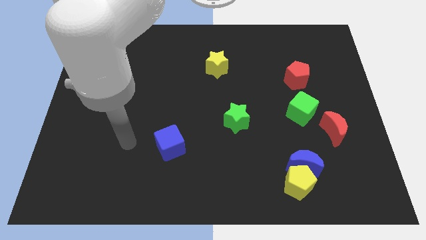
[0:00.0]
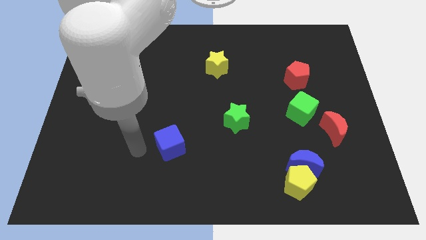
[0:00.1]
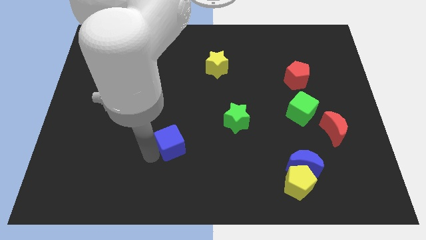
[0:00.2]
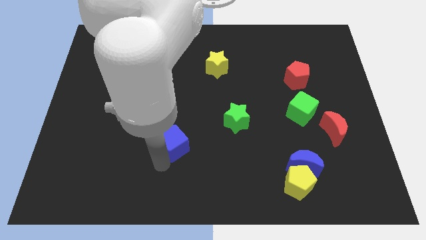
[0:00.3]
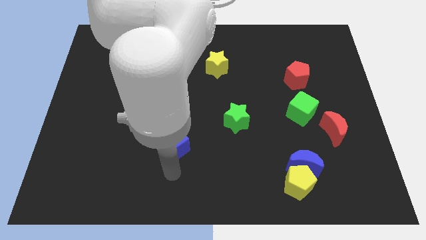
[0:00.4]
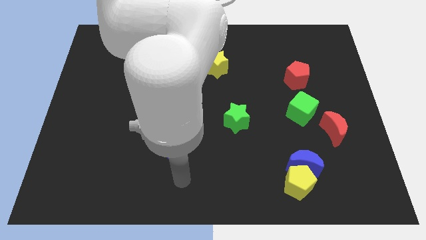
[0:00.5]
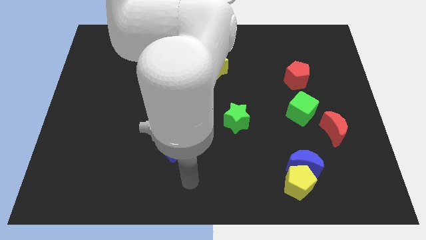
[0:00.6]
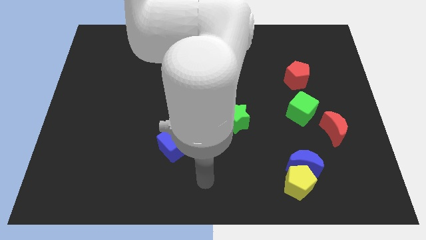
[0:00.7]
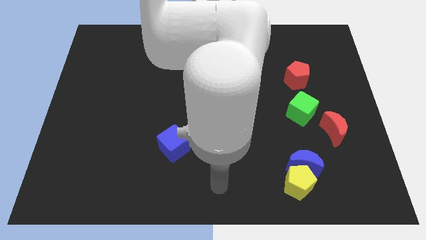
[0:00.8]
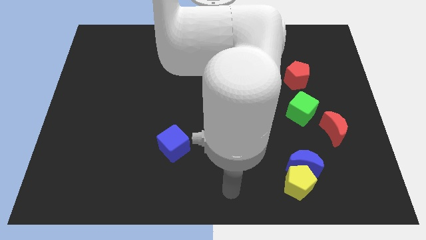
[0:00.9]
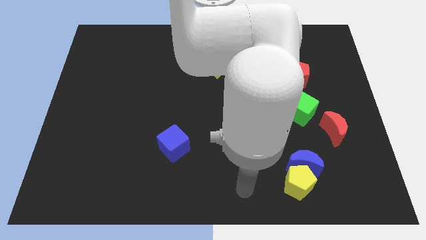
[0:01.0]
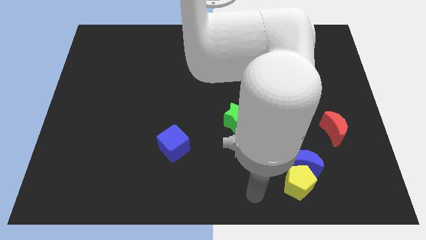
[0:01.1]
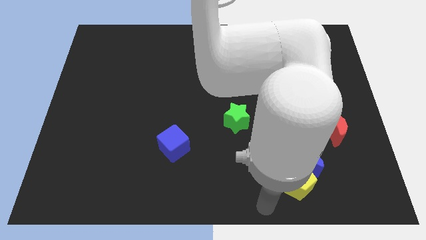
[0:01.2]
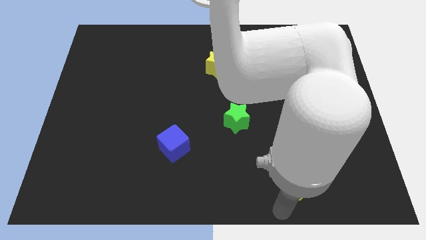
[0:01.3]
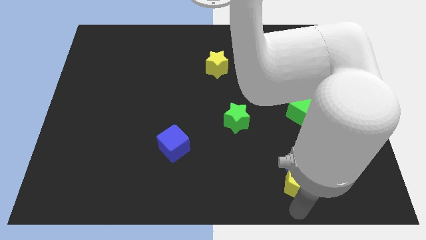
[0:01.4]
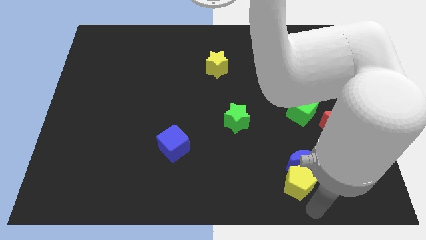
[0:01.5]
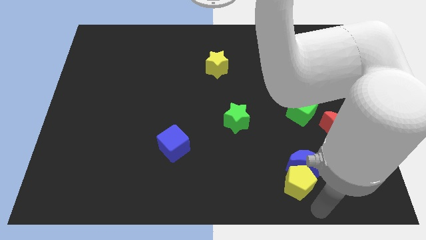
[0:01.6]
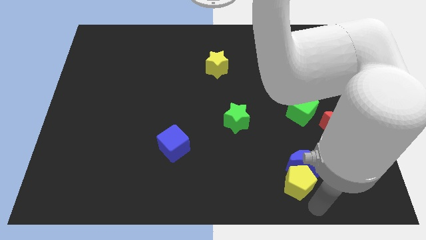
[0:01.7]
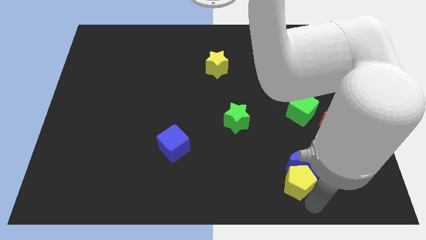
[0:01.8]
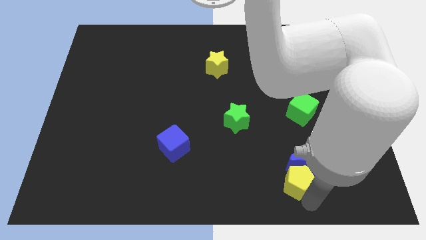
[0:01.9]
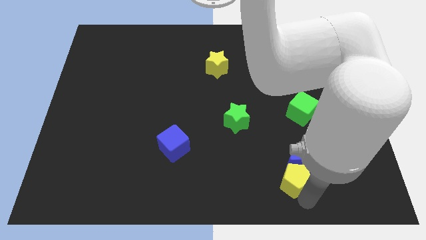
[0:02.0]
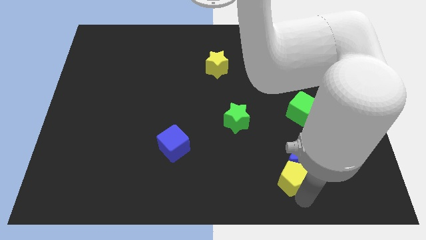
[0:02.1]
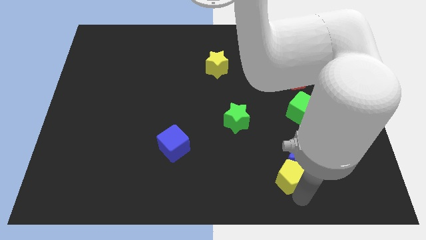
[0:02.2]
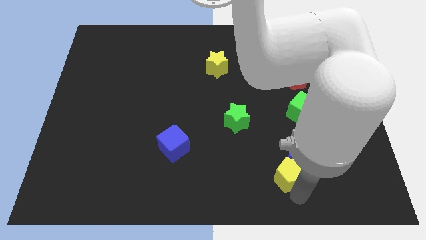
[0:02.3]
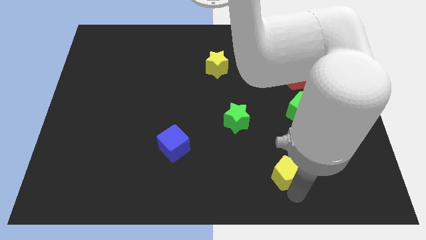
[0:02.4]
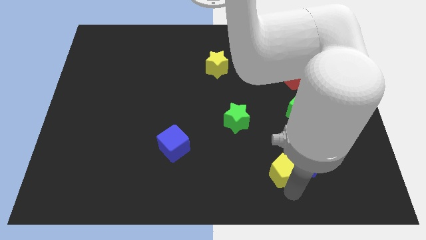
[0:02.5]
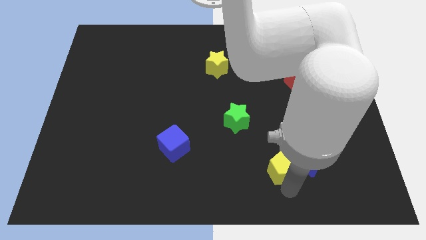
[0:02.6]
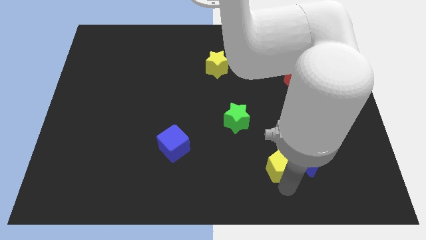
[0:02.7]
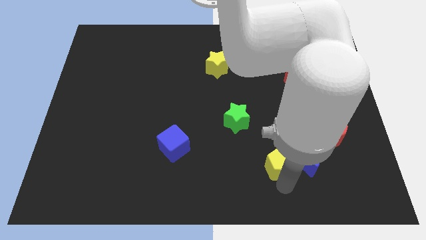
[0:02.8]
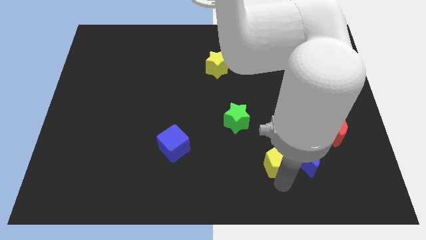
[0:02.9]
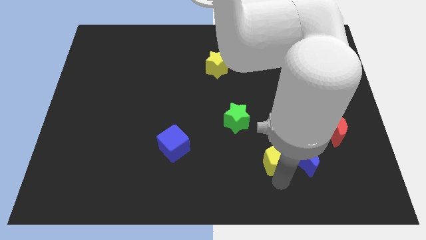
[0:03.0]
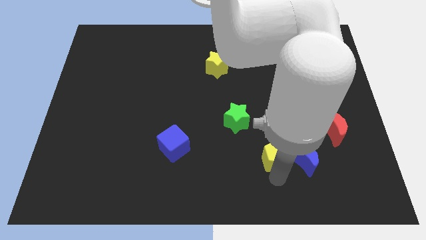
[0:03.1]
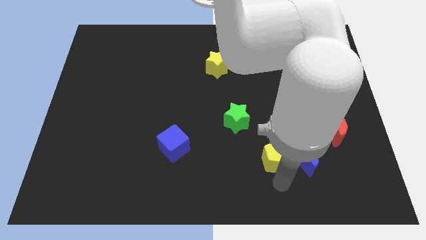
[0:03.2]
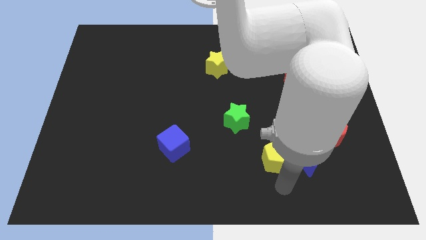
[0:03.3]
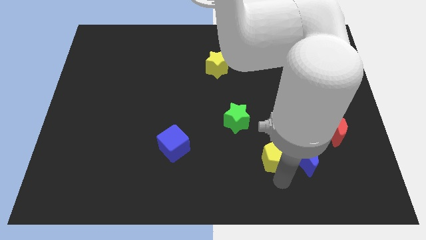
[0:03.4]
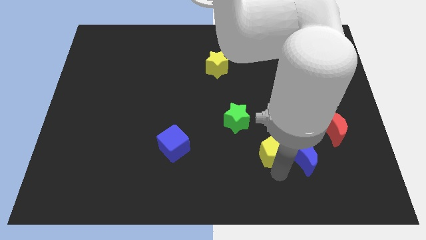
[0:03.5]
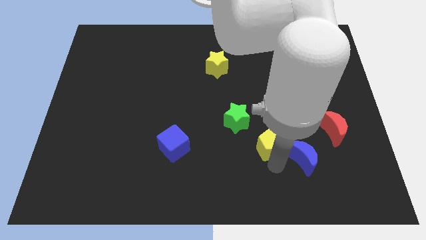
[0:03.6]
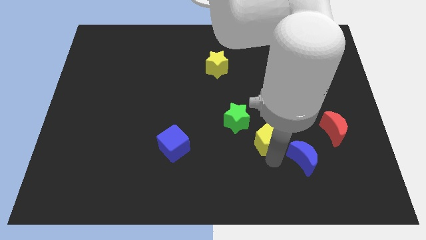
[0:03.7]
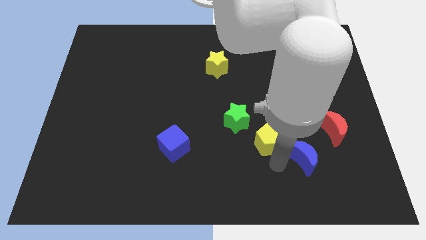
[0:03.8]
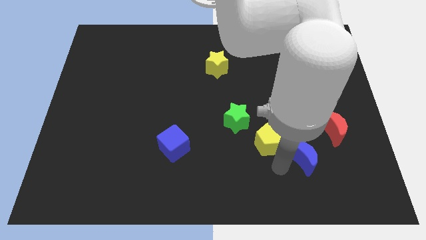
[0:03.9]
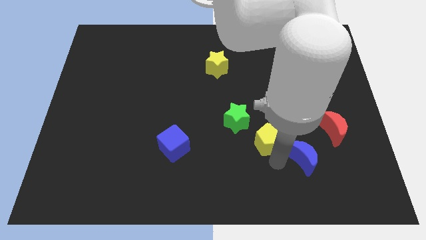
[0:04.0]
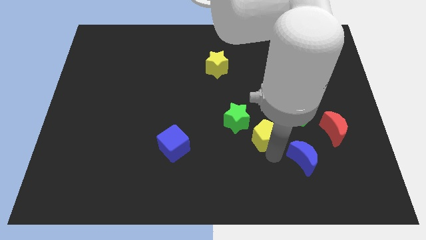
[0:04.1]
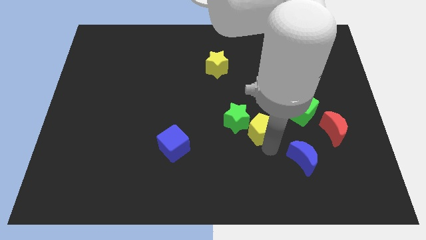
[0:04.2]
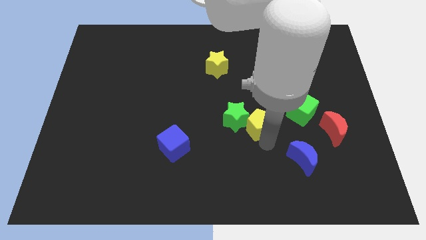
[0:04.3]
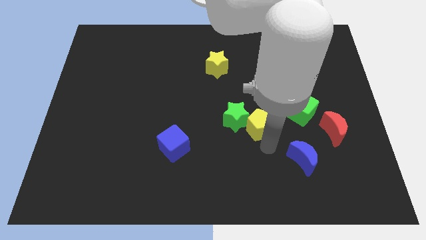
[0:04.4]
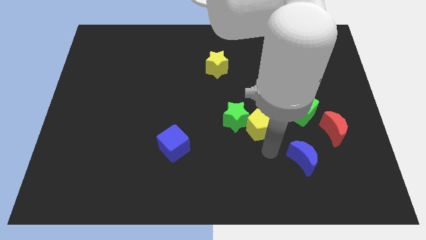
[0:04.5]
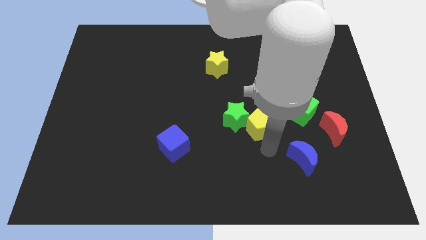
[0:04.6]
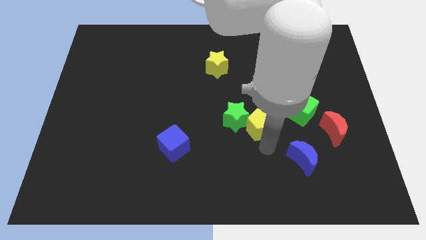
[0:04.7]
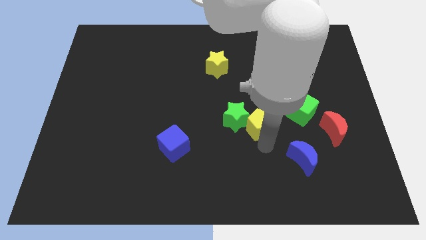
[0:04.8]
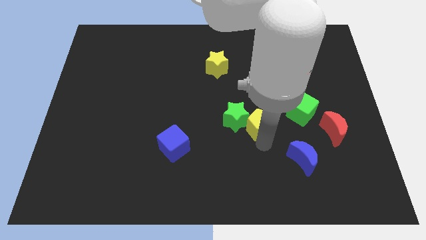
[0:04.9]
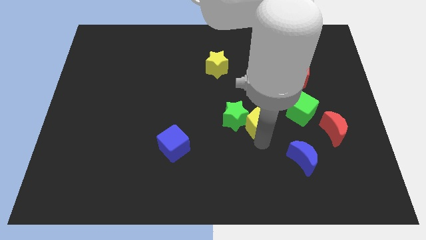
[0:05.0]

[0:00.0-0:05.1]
push the yellow pentagon to the middle of the board

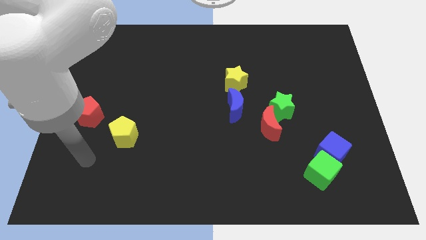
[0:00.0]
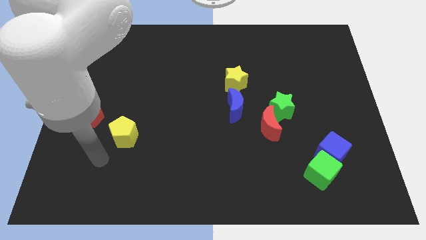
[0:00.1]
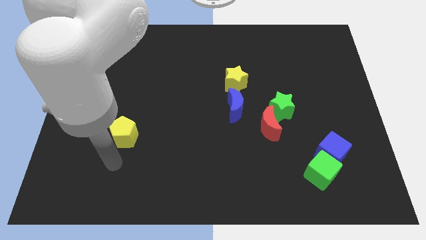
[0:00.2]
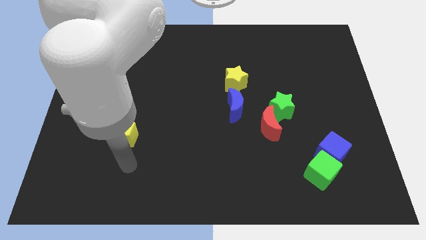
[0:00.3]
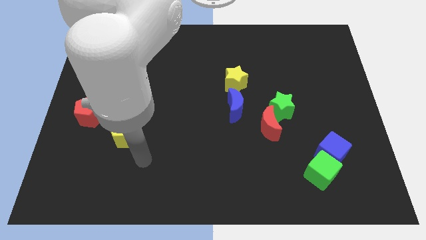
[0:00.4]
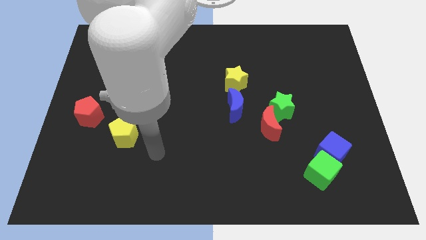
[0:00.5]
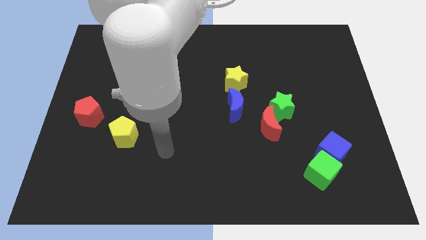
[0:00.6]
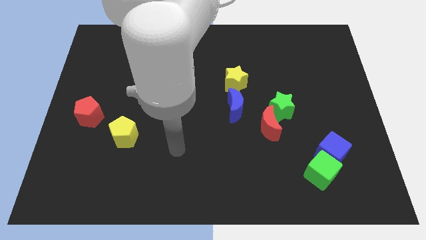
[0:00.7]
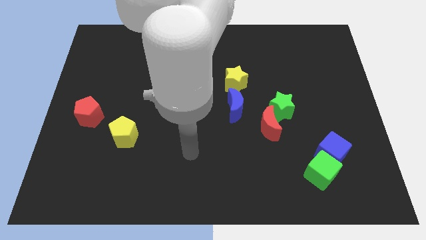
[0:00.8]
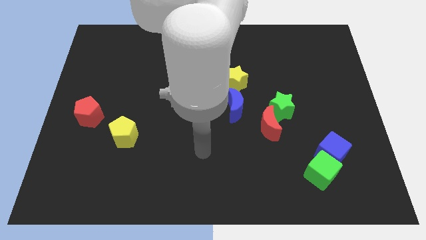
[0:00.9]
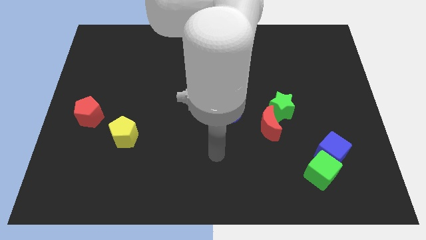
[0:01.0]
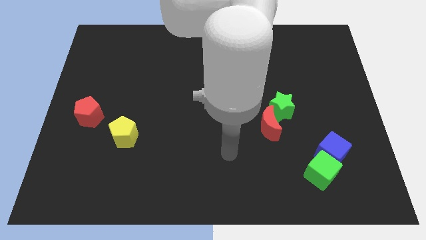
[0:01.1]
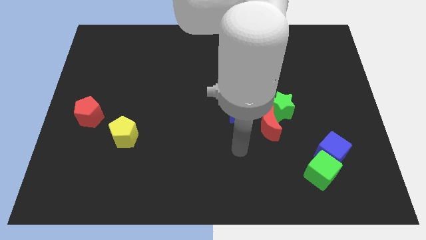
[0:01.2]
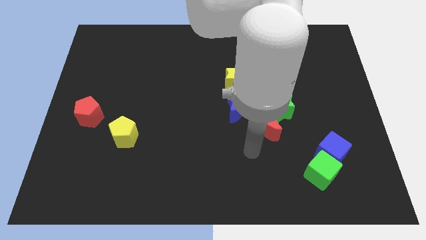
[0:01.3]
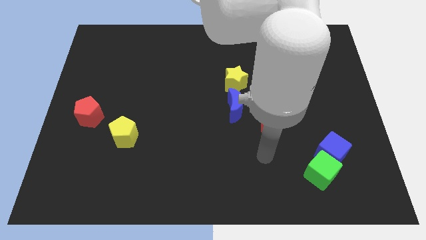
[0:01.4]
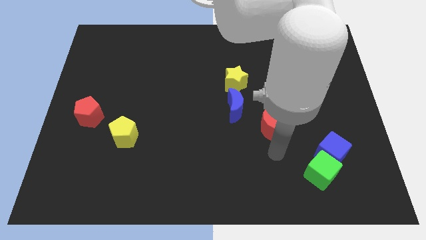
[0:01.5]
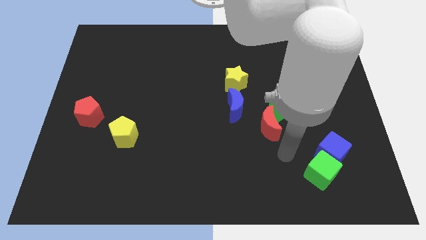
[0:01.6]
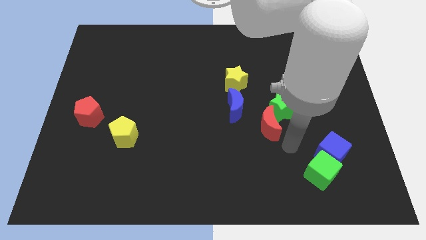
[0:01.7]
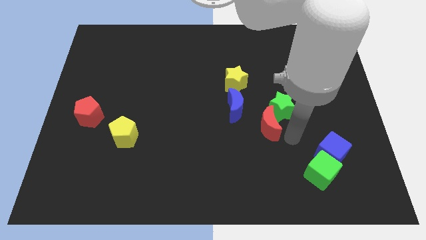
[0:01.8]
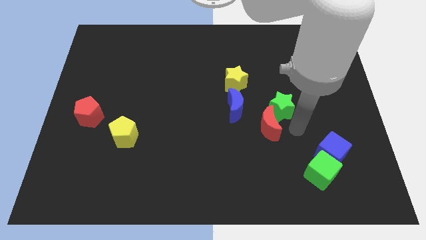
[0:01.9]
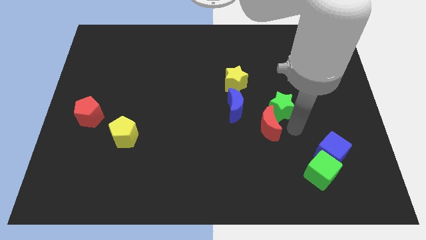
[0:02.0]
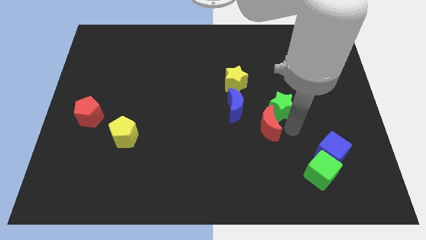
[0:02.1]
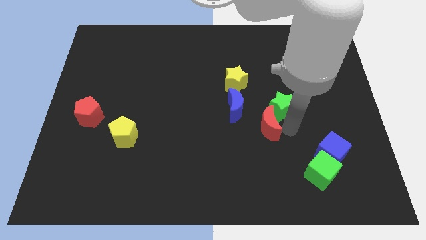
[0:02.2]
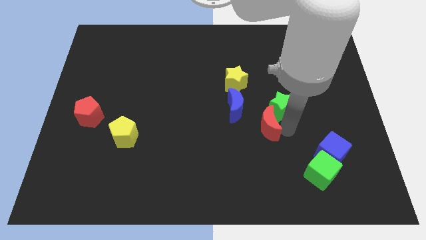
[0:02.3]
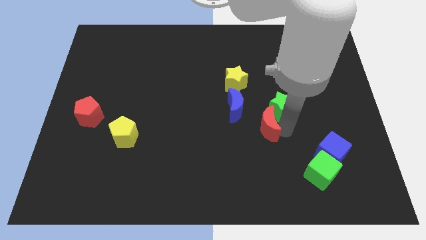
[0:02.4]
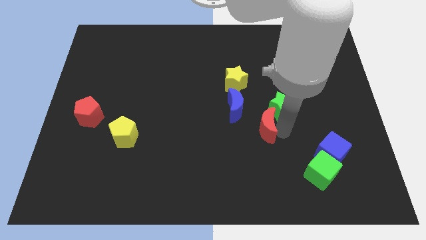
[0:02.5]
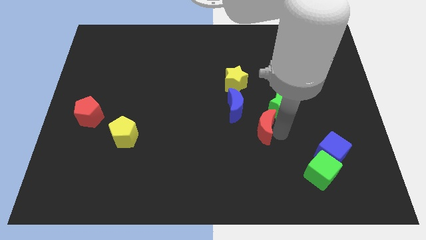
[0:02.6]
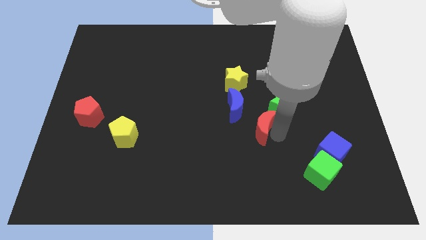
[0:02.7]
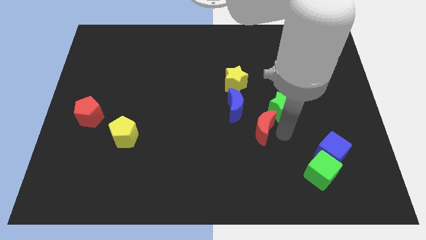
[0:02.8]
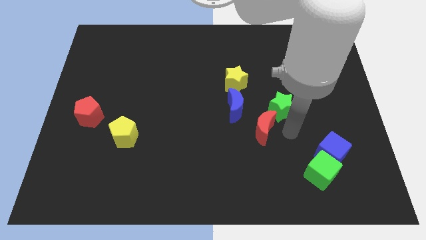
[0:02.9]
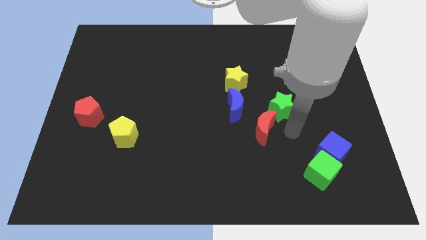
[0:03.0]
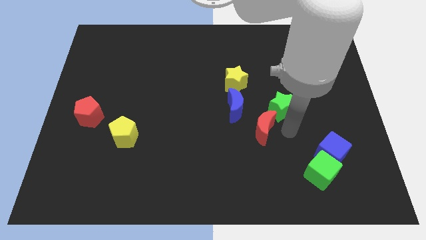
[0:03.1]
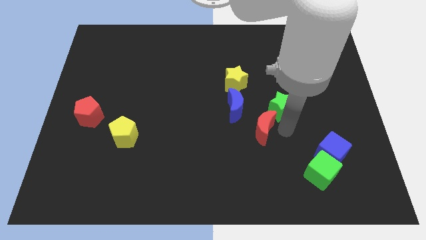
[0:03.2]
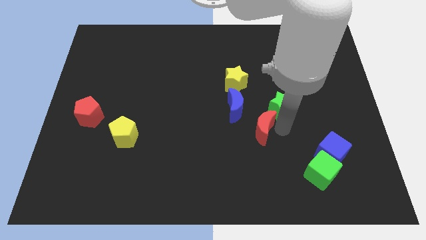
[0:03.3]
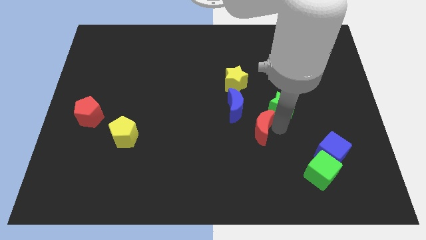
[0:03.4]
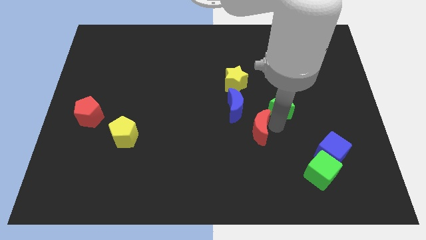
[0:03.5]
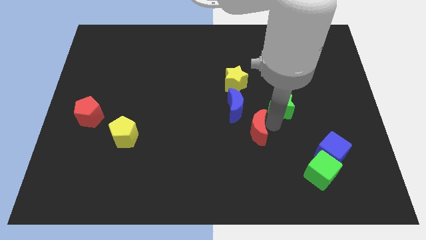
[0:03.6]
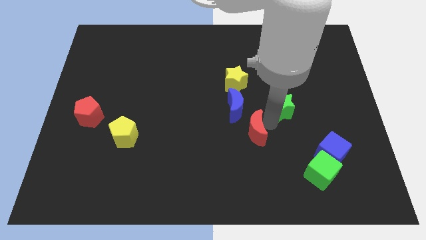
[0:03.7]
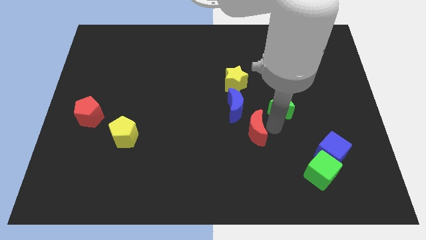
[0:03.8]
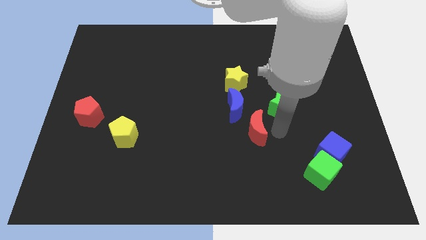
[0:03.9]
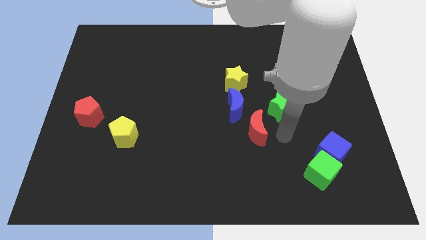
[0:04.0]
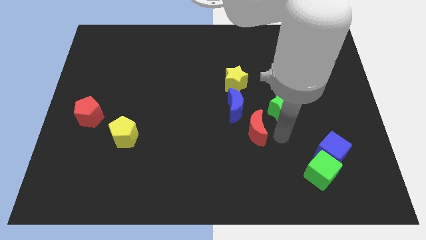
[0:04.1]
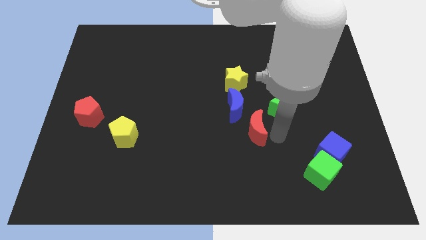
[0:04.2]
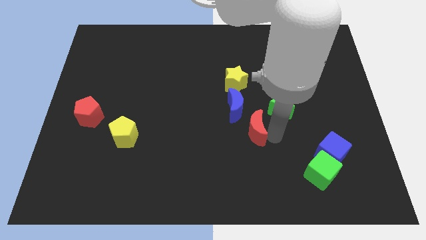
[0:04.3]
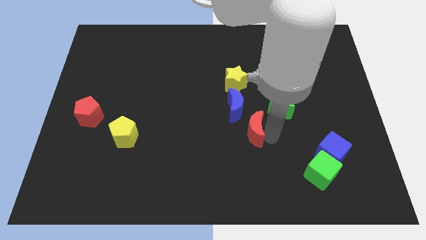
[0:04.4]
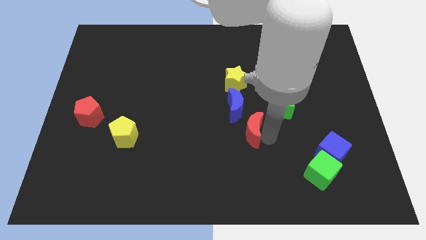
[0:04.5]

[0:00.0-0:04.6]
slide the red moon to the center
